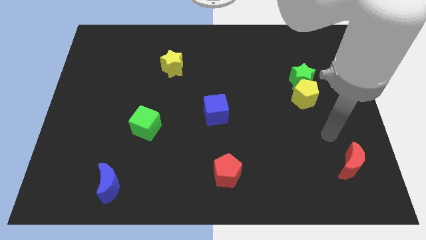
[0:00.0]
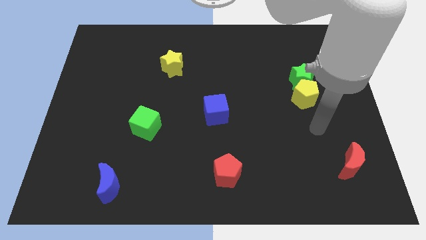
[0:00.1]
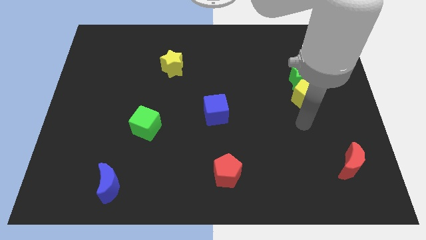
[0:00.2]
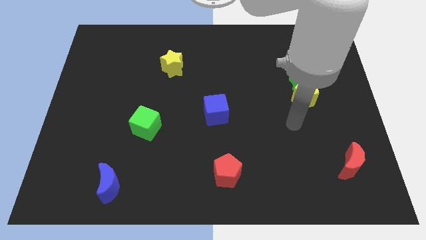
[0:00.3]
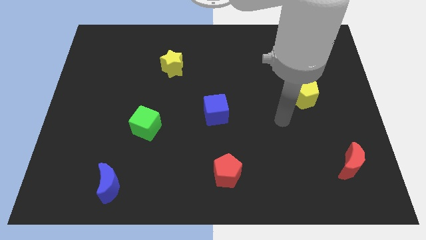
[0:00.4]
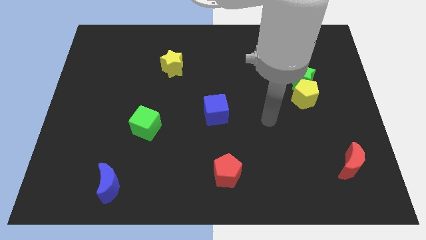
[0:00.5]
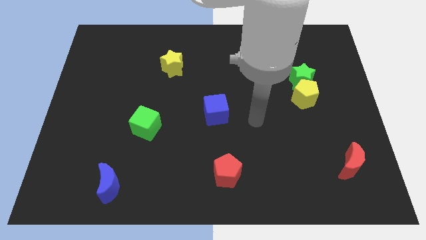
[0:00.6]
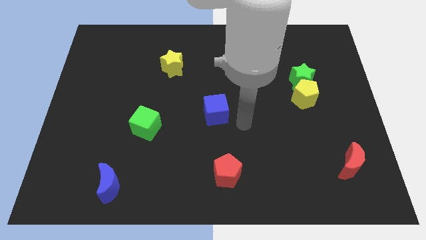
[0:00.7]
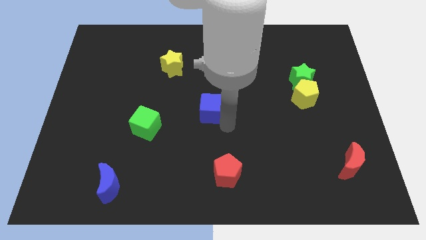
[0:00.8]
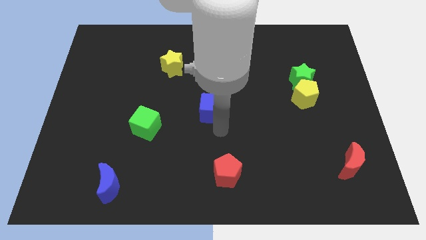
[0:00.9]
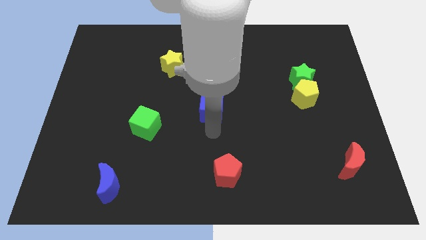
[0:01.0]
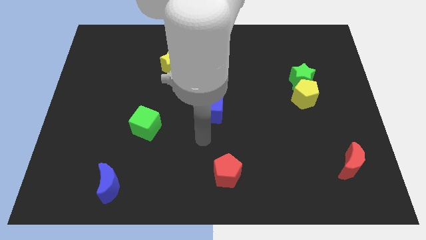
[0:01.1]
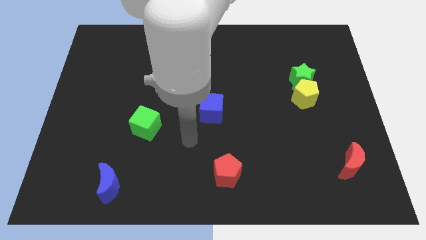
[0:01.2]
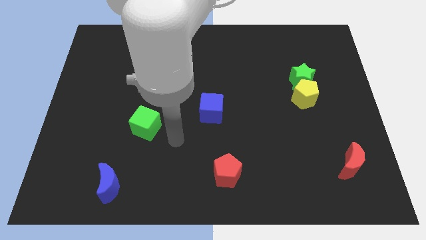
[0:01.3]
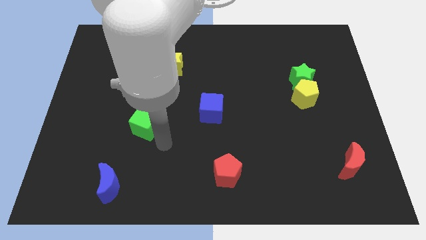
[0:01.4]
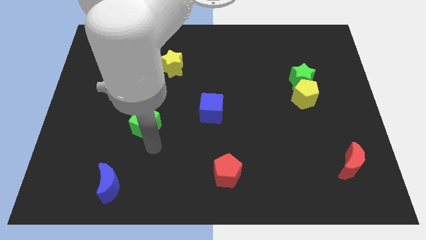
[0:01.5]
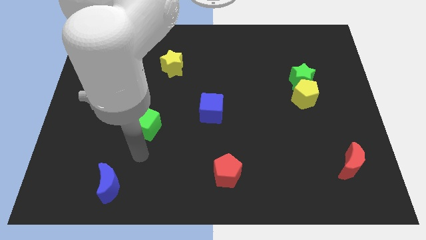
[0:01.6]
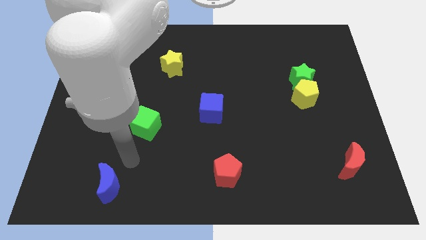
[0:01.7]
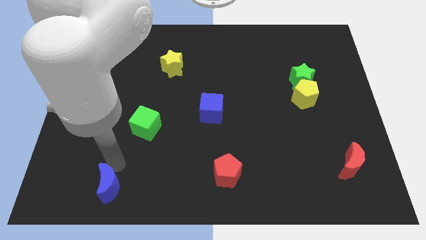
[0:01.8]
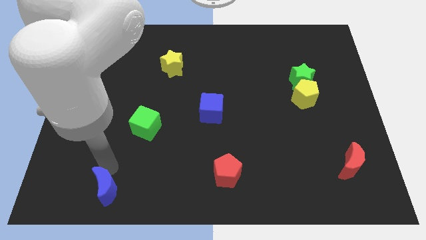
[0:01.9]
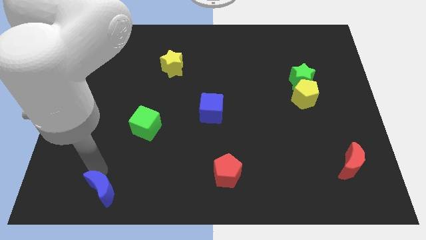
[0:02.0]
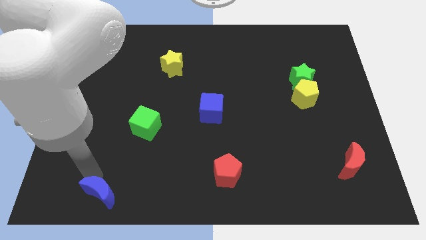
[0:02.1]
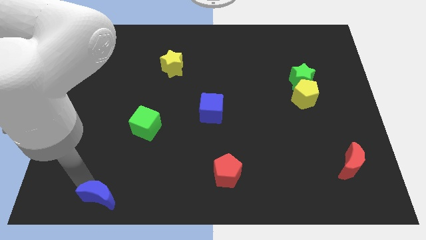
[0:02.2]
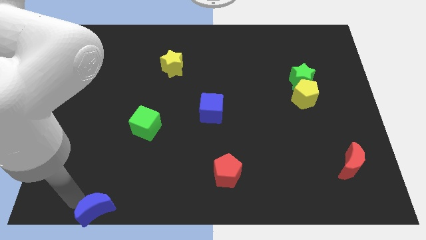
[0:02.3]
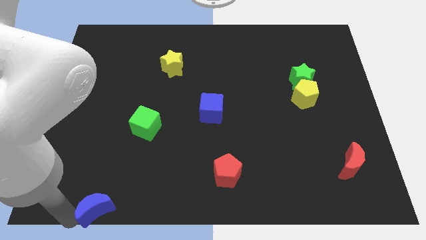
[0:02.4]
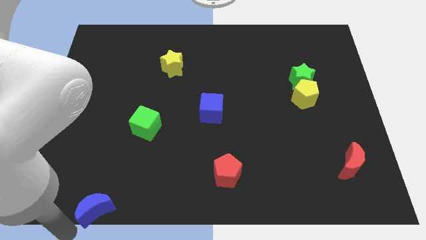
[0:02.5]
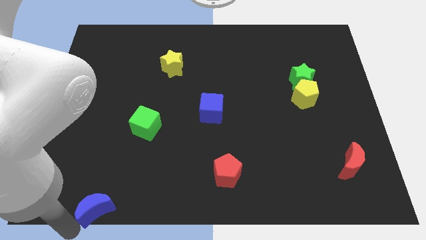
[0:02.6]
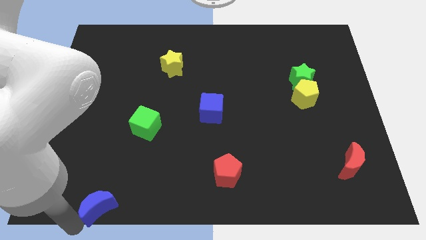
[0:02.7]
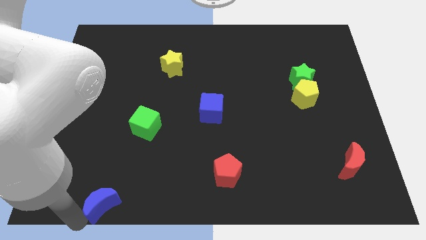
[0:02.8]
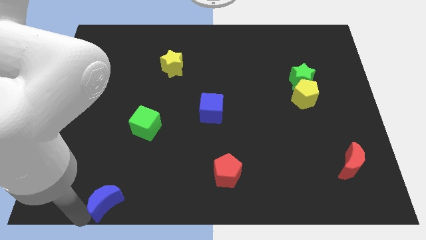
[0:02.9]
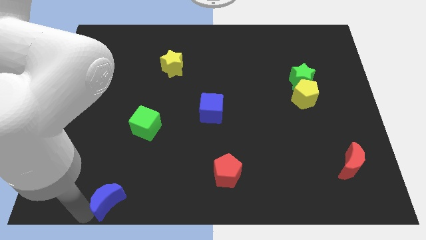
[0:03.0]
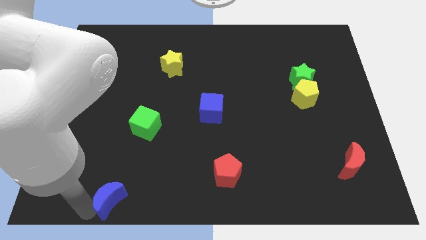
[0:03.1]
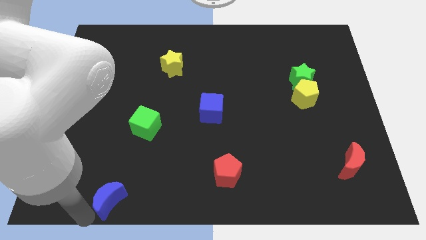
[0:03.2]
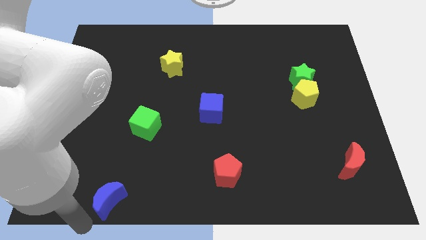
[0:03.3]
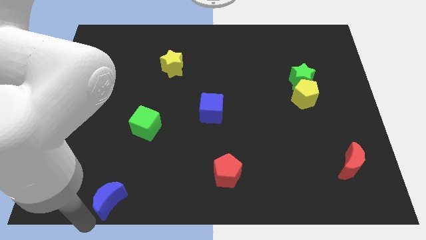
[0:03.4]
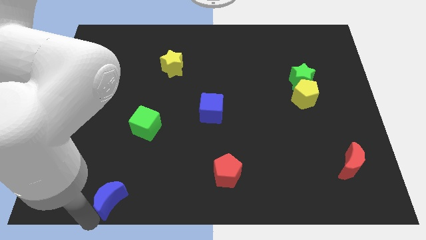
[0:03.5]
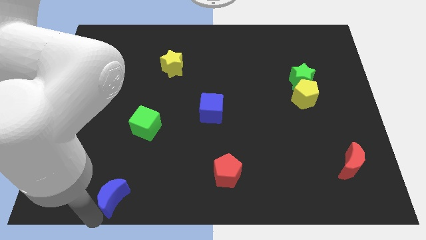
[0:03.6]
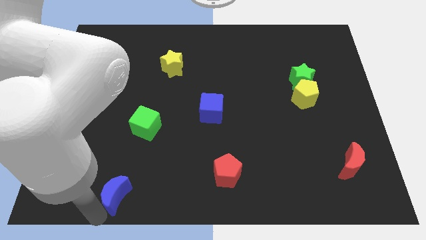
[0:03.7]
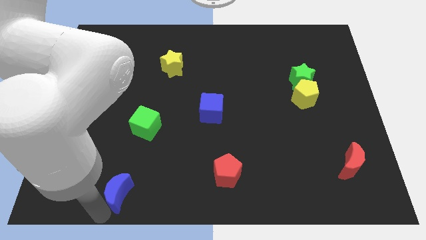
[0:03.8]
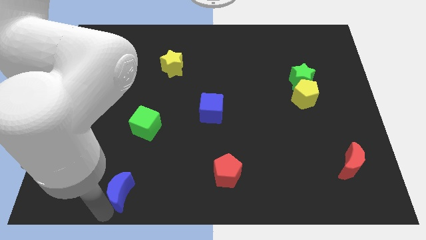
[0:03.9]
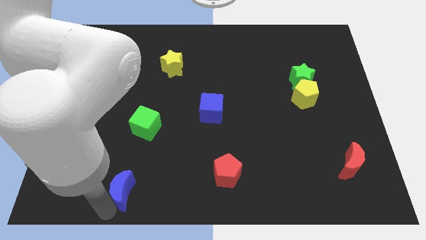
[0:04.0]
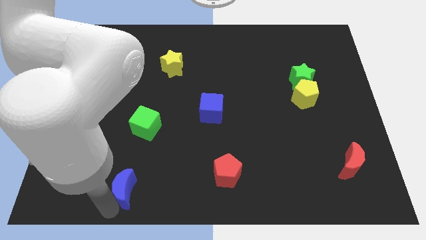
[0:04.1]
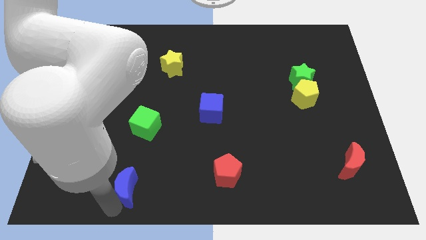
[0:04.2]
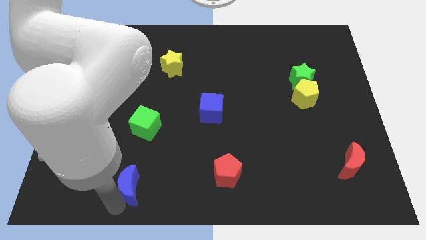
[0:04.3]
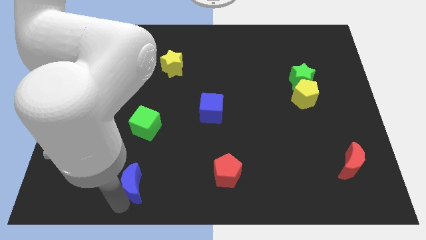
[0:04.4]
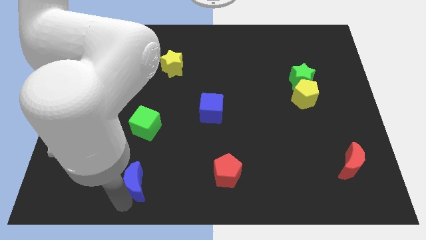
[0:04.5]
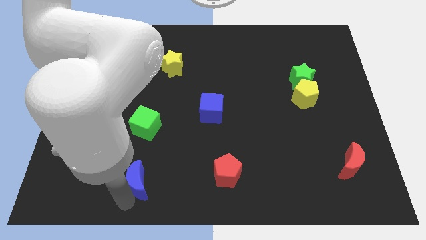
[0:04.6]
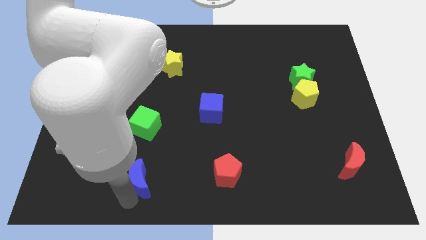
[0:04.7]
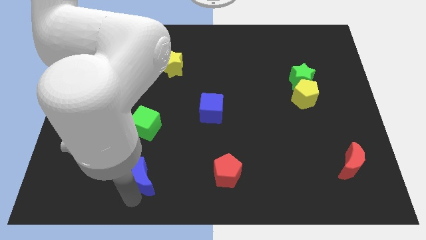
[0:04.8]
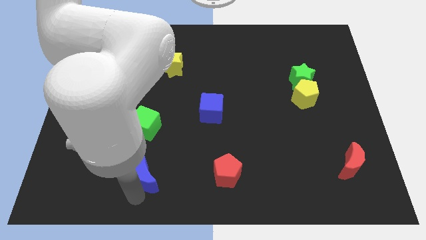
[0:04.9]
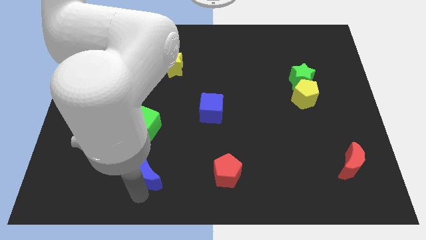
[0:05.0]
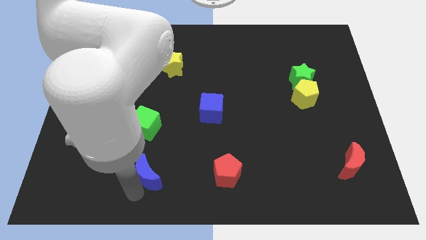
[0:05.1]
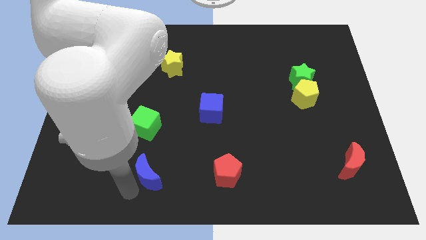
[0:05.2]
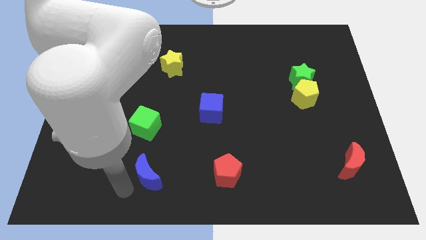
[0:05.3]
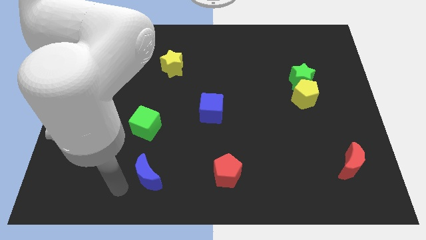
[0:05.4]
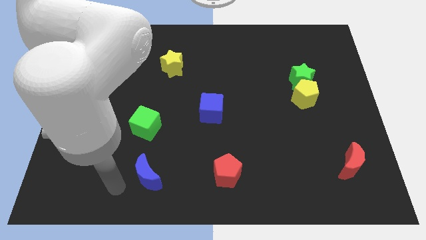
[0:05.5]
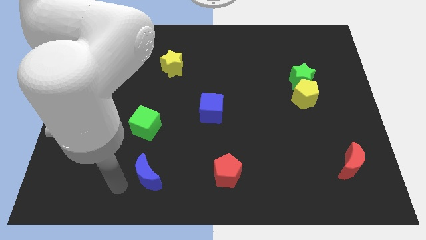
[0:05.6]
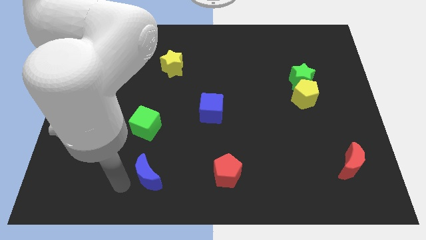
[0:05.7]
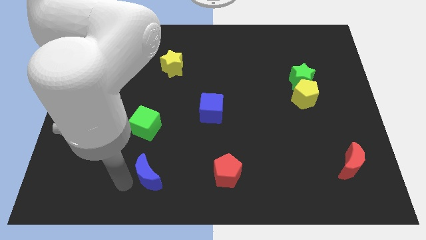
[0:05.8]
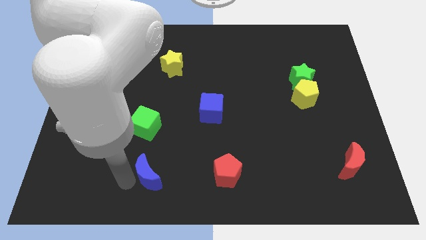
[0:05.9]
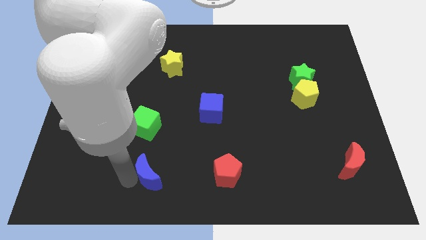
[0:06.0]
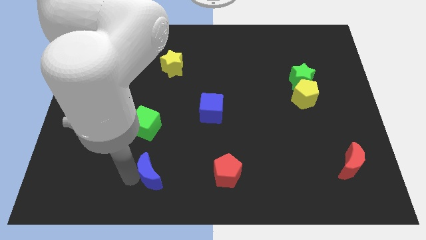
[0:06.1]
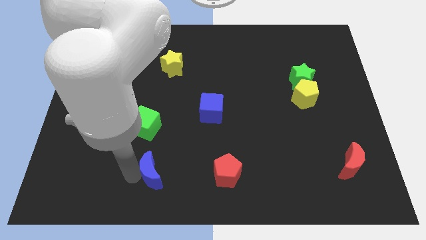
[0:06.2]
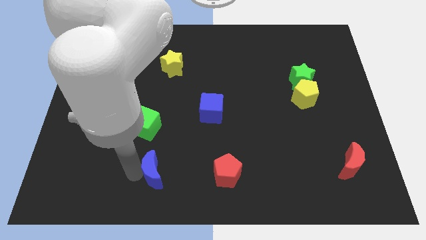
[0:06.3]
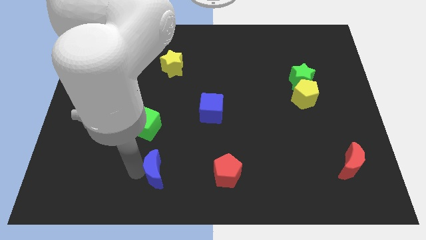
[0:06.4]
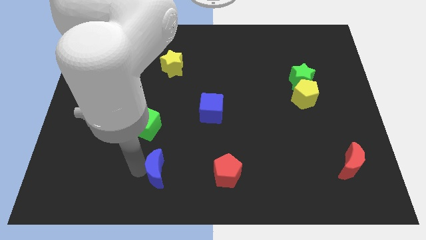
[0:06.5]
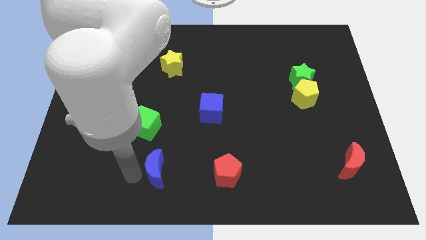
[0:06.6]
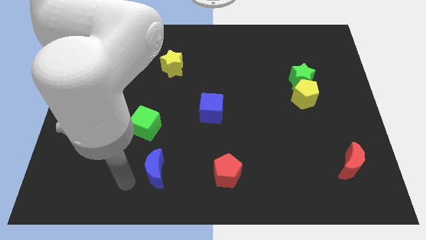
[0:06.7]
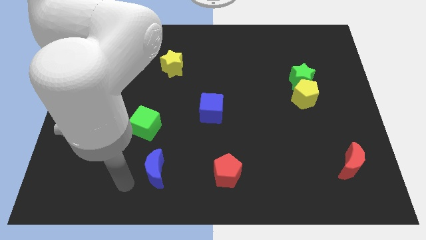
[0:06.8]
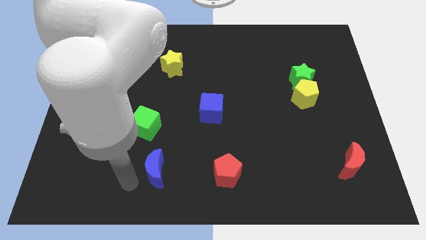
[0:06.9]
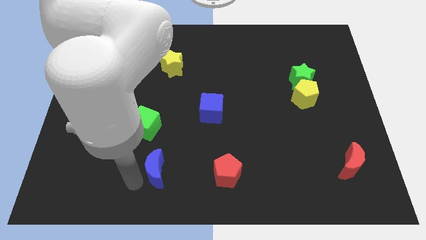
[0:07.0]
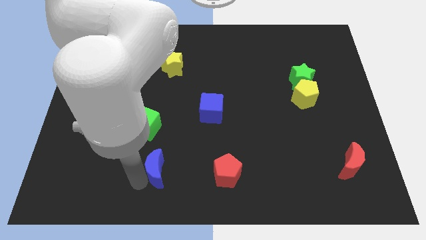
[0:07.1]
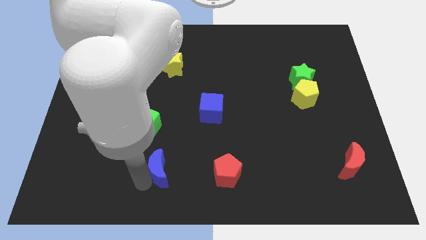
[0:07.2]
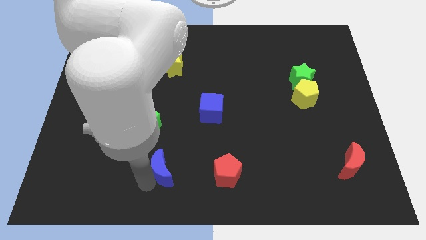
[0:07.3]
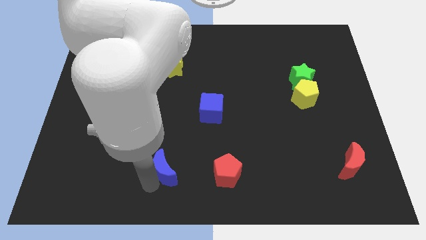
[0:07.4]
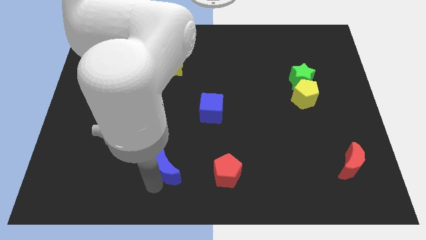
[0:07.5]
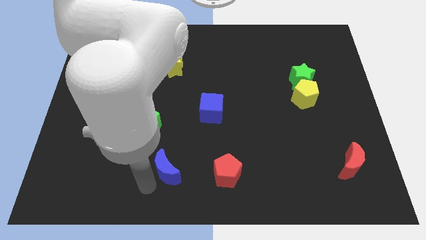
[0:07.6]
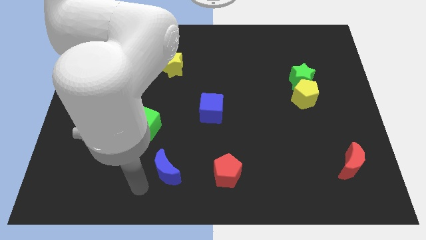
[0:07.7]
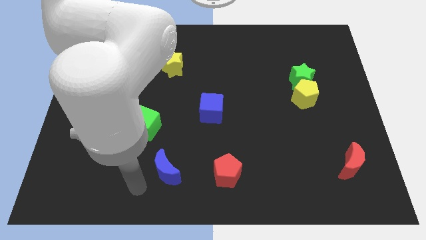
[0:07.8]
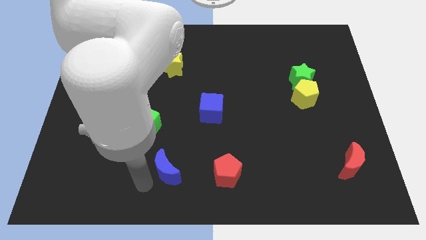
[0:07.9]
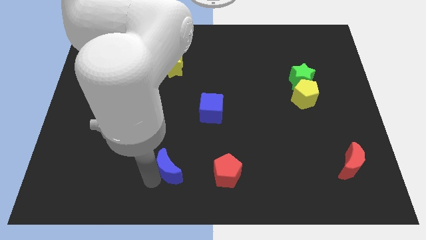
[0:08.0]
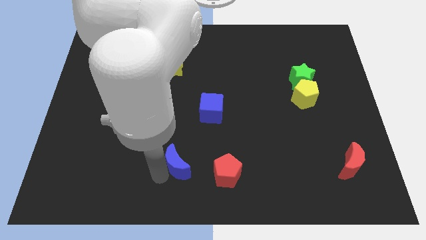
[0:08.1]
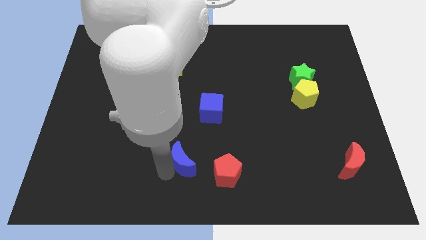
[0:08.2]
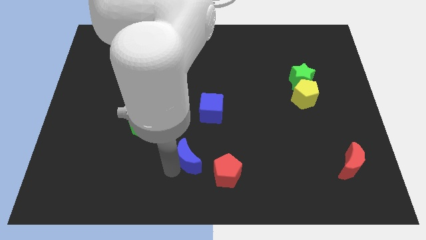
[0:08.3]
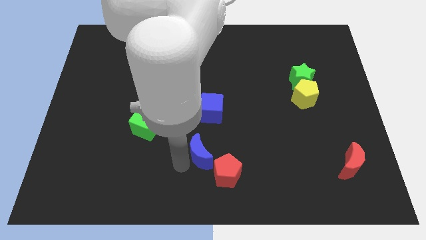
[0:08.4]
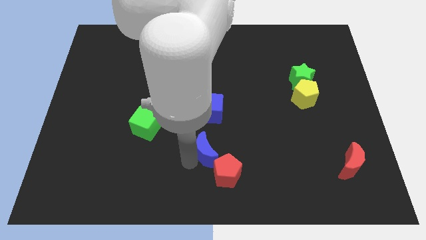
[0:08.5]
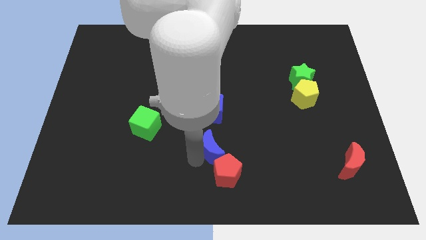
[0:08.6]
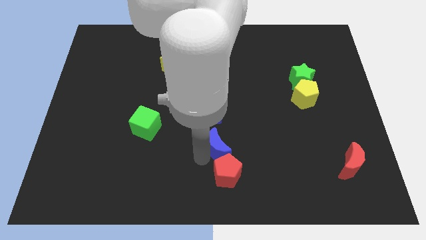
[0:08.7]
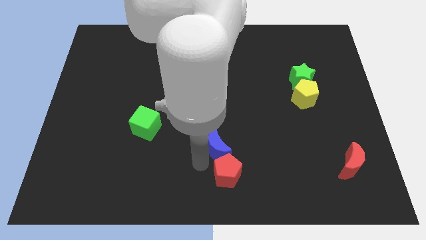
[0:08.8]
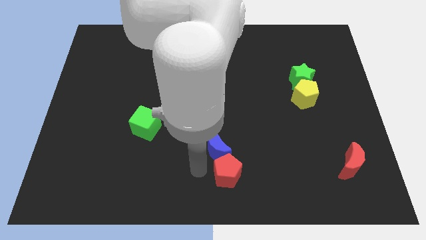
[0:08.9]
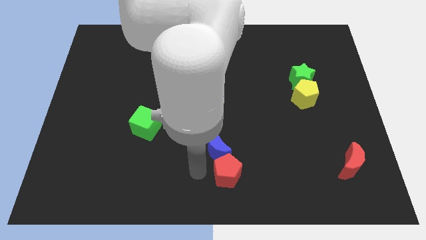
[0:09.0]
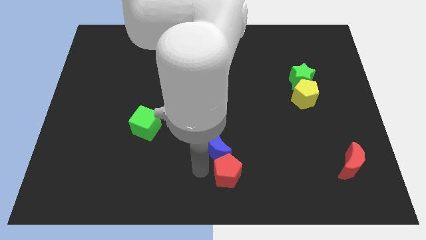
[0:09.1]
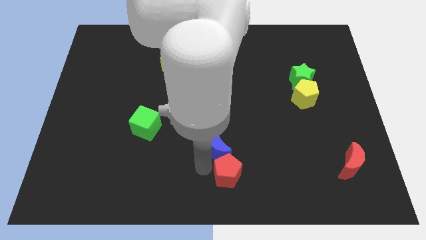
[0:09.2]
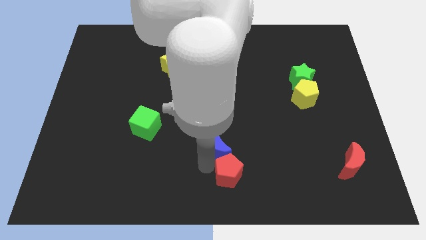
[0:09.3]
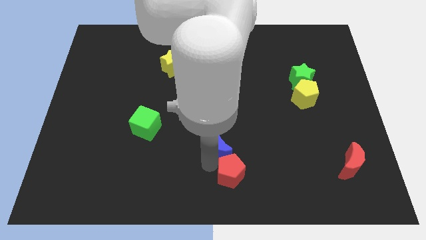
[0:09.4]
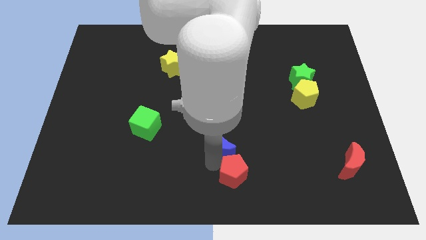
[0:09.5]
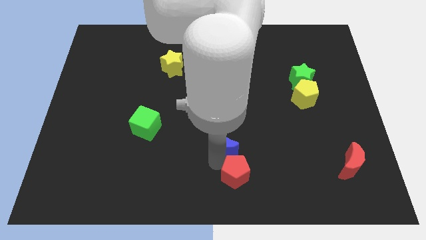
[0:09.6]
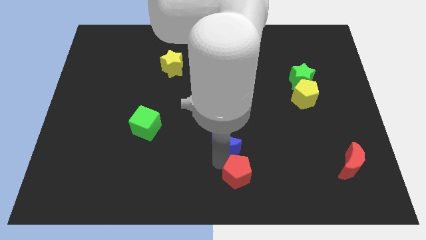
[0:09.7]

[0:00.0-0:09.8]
move the blue moon to the bottom right of the blue cube
